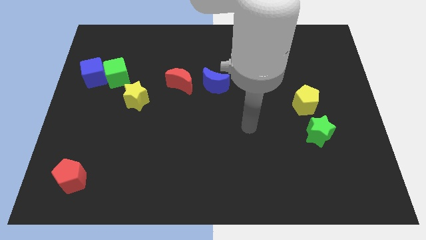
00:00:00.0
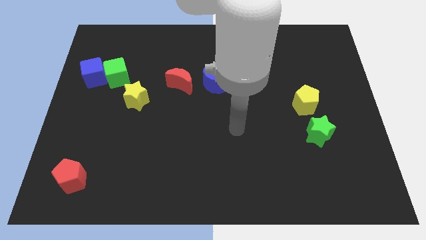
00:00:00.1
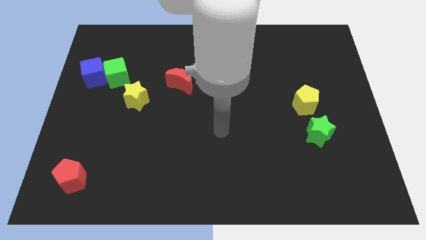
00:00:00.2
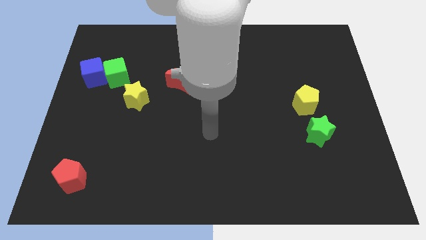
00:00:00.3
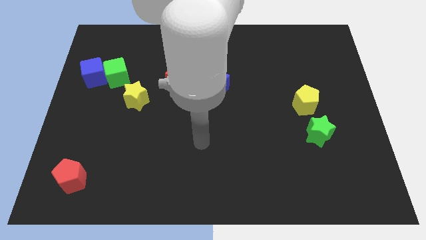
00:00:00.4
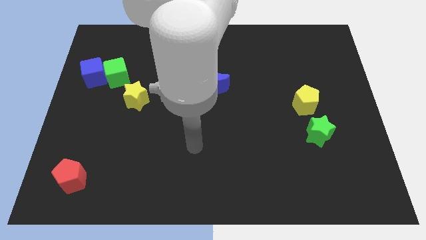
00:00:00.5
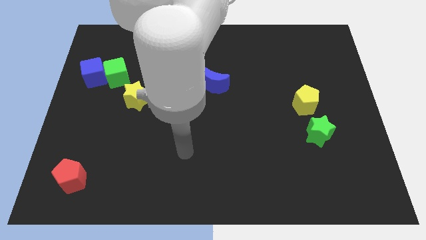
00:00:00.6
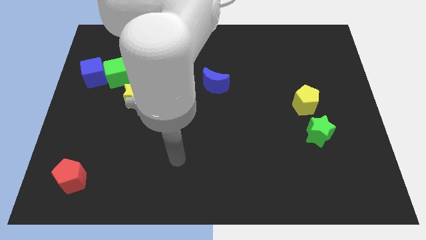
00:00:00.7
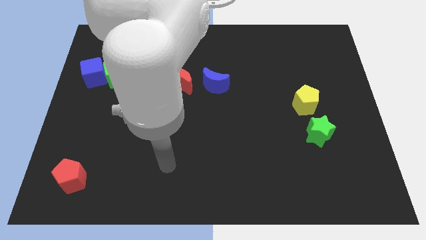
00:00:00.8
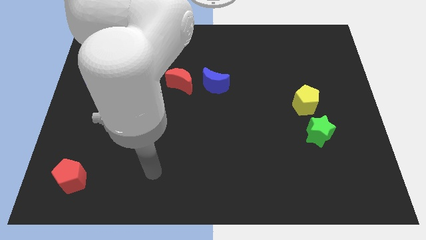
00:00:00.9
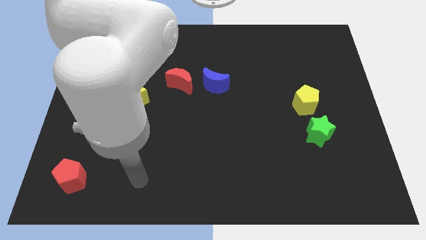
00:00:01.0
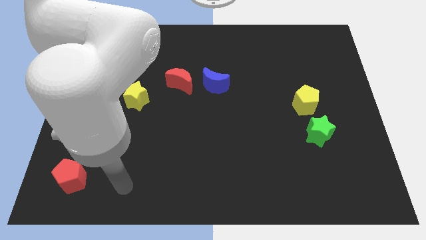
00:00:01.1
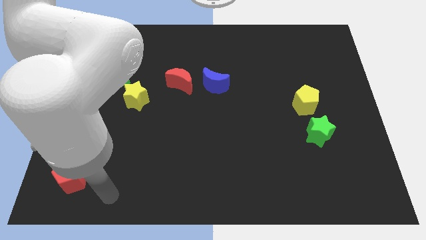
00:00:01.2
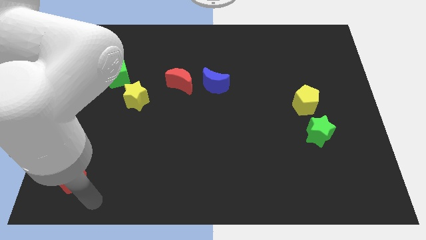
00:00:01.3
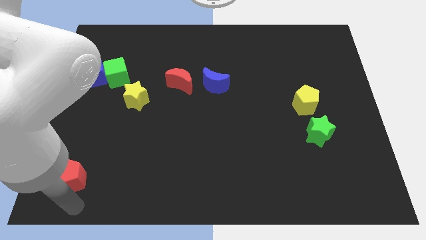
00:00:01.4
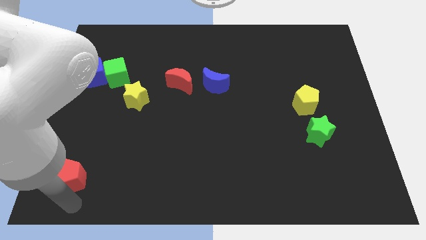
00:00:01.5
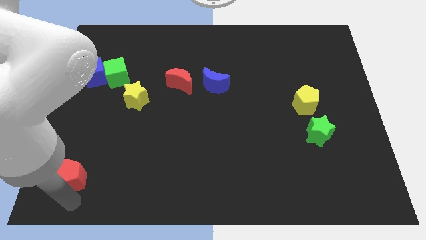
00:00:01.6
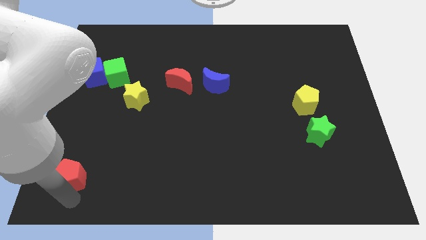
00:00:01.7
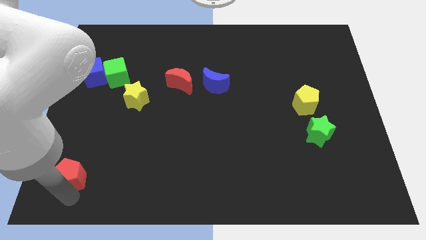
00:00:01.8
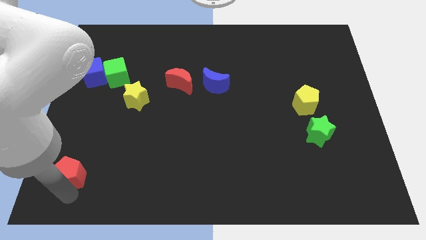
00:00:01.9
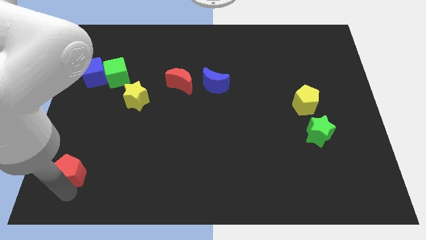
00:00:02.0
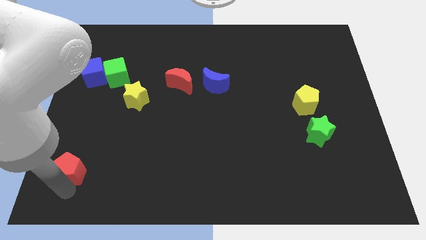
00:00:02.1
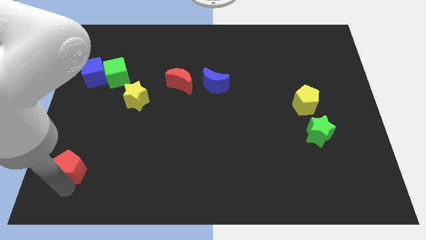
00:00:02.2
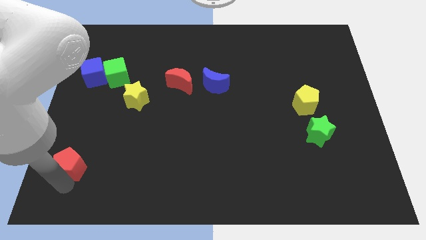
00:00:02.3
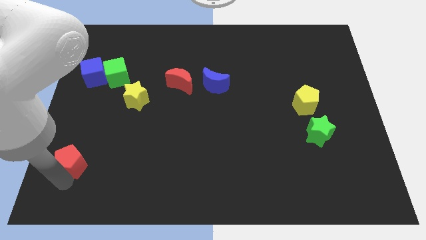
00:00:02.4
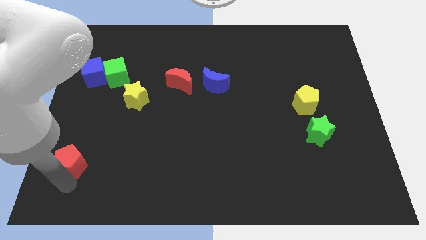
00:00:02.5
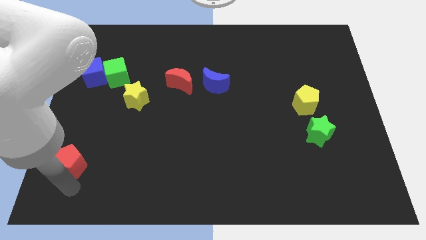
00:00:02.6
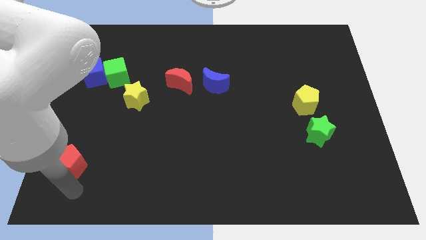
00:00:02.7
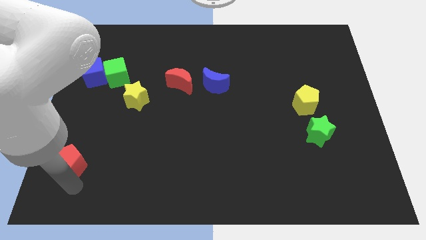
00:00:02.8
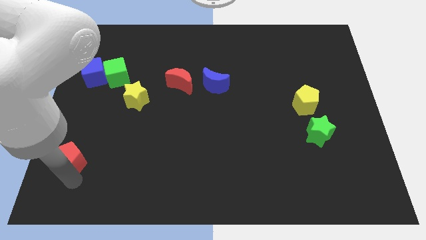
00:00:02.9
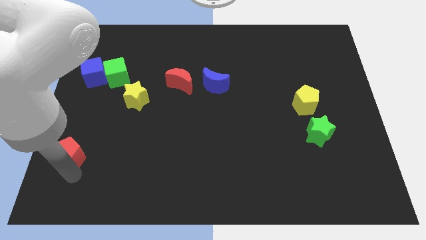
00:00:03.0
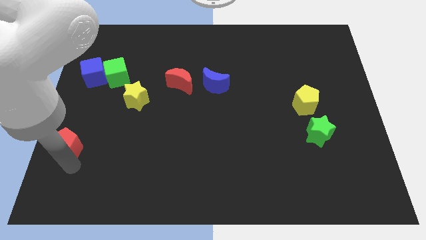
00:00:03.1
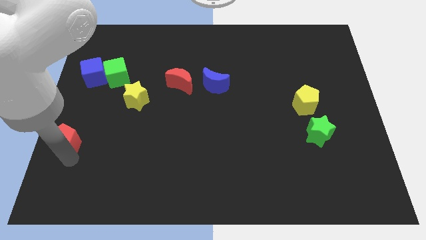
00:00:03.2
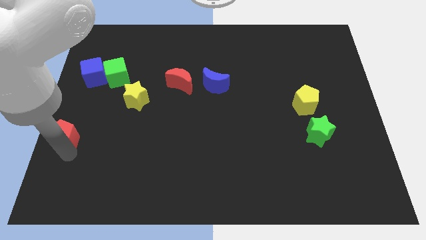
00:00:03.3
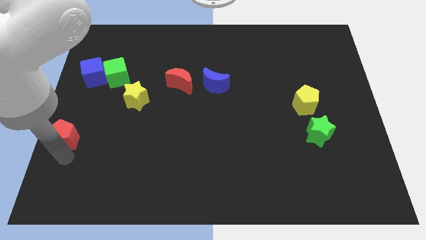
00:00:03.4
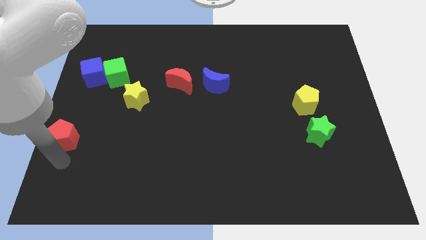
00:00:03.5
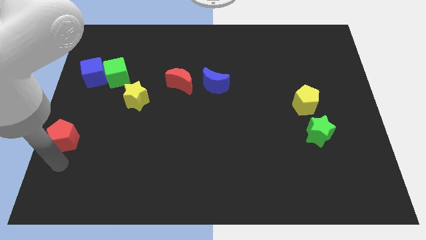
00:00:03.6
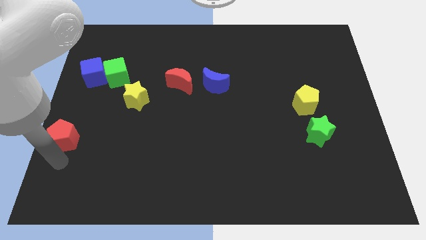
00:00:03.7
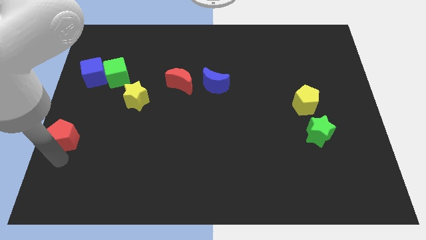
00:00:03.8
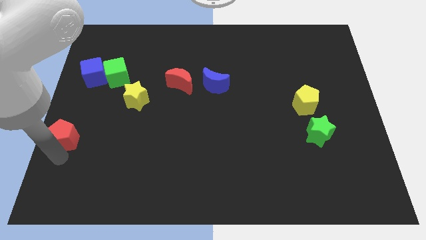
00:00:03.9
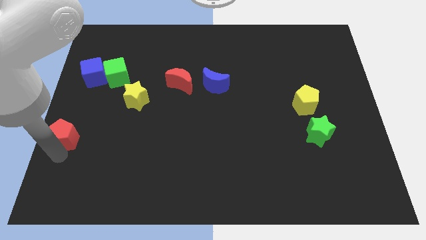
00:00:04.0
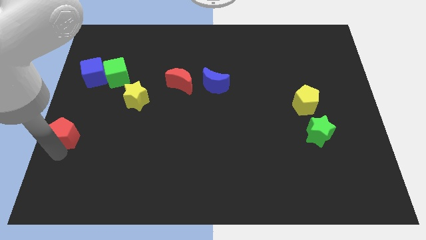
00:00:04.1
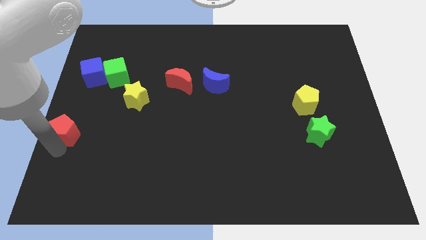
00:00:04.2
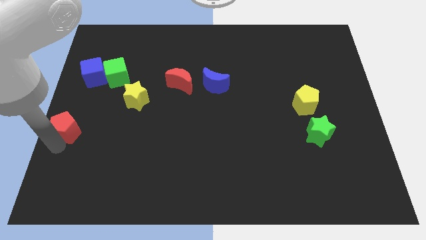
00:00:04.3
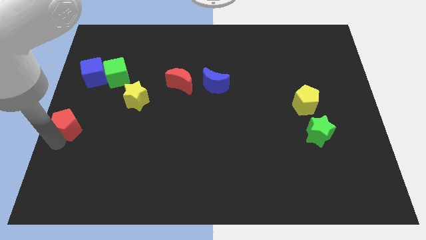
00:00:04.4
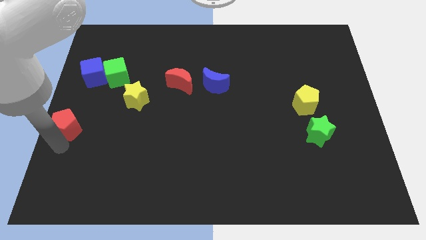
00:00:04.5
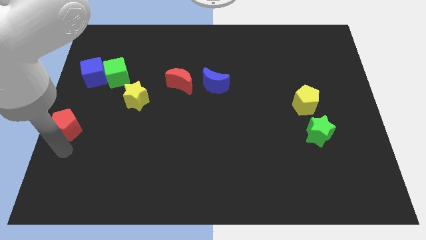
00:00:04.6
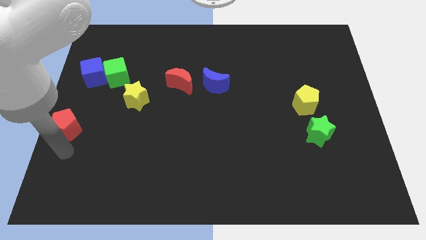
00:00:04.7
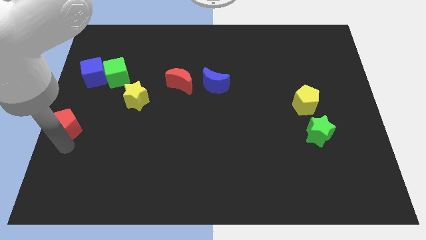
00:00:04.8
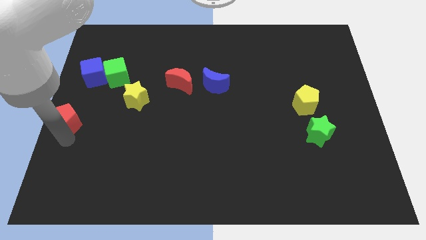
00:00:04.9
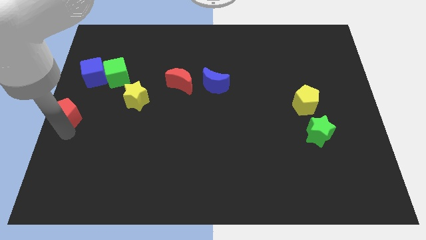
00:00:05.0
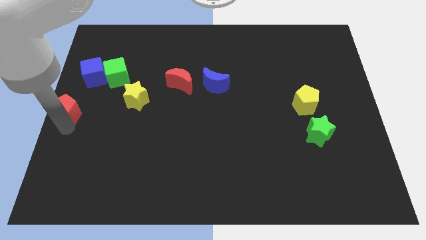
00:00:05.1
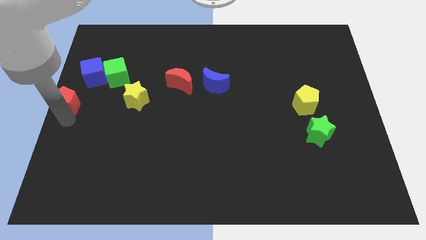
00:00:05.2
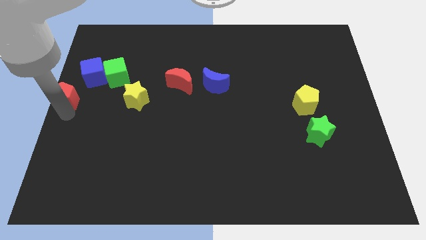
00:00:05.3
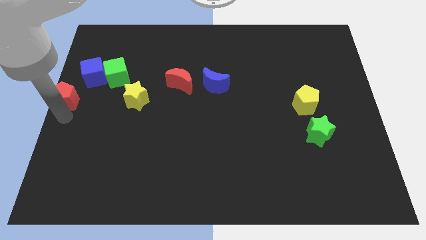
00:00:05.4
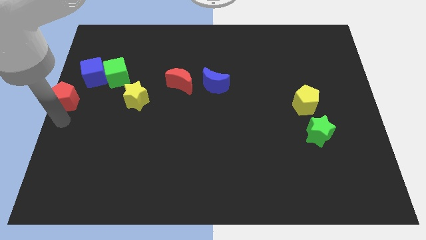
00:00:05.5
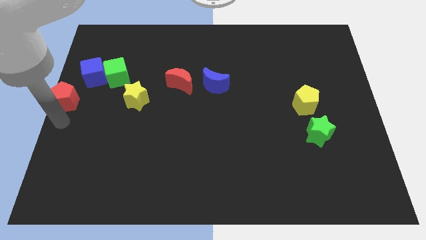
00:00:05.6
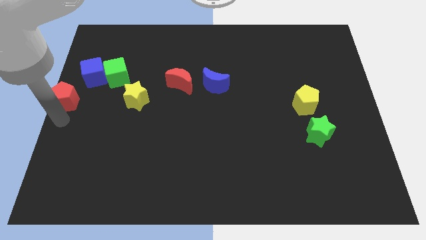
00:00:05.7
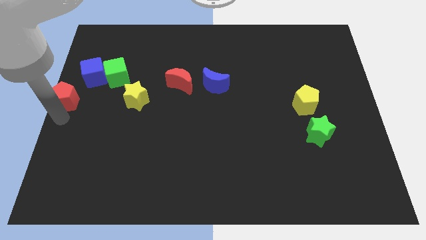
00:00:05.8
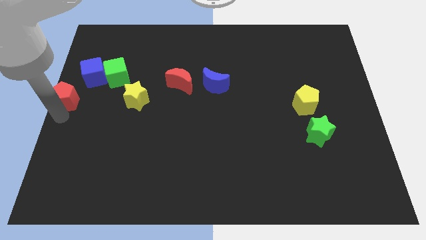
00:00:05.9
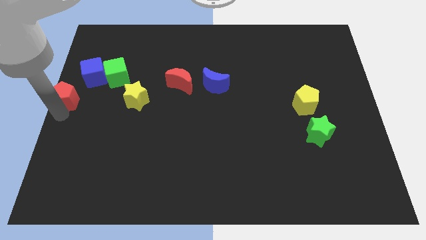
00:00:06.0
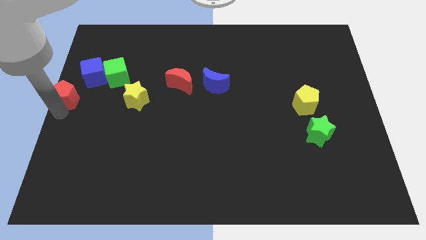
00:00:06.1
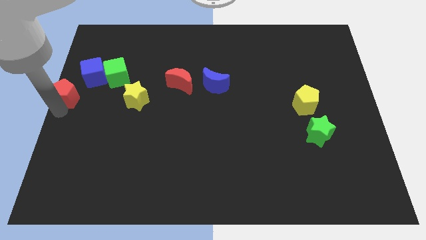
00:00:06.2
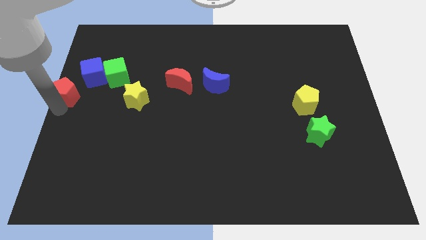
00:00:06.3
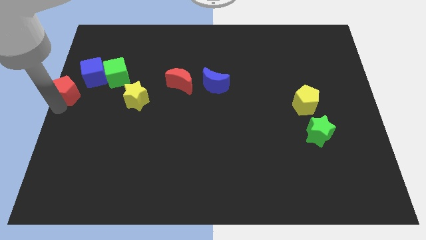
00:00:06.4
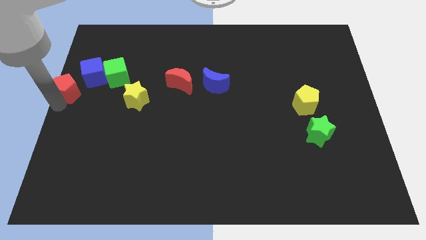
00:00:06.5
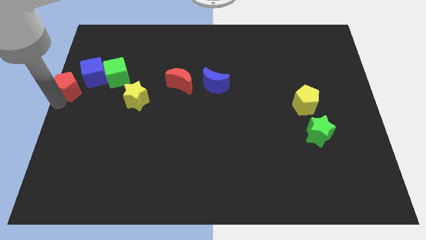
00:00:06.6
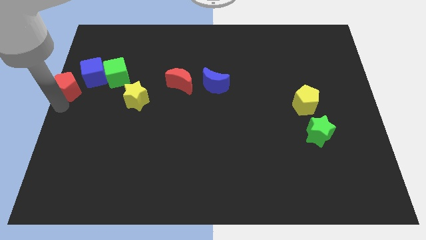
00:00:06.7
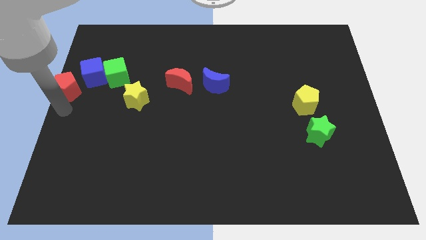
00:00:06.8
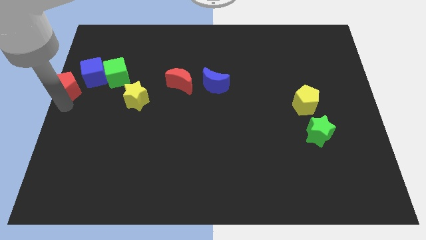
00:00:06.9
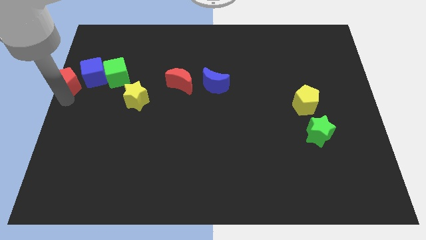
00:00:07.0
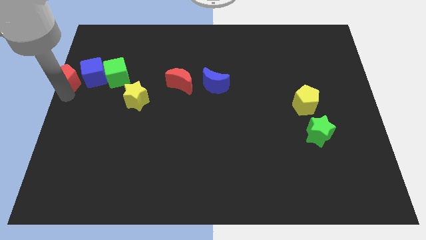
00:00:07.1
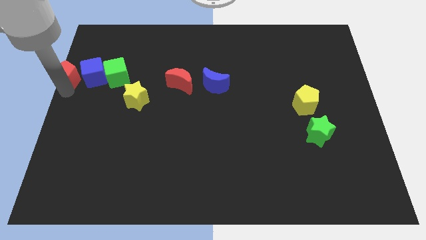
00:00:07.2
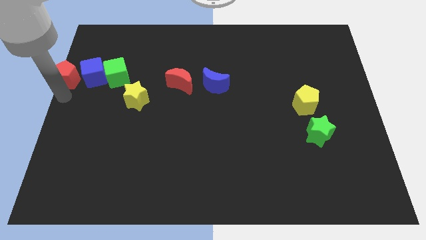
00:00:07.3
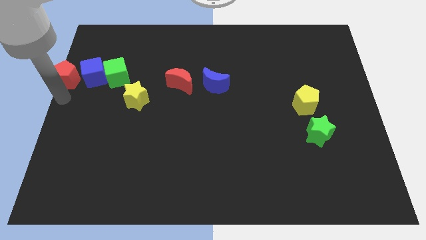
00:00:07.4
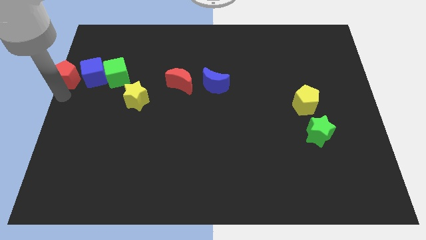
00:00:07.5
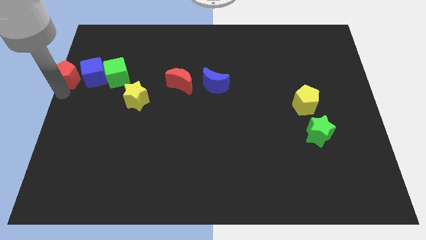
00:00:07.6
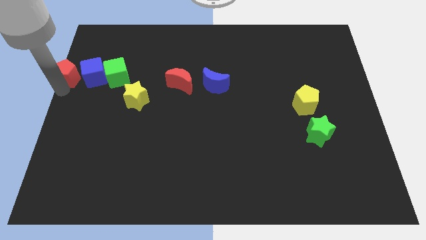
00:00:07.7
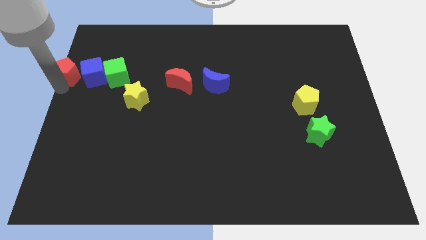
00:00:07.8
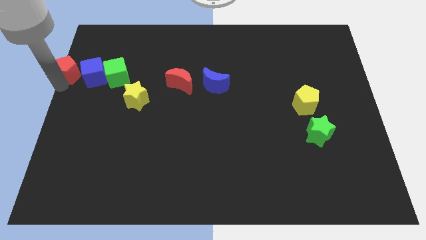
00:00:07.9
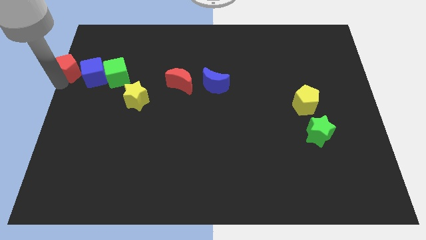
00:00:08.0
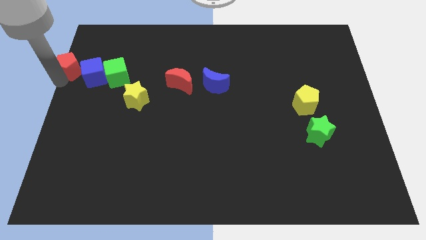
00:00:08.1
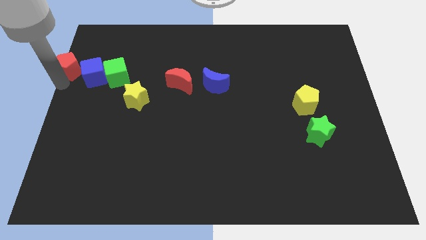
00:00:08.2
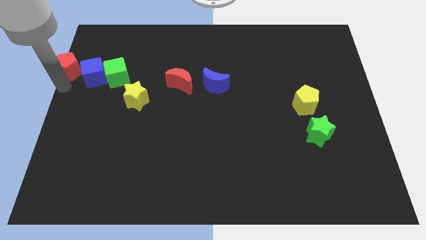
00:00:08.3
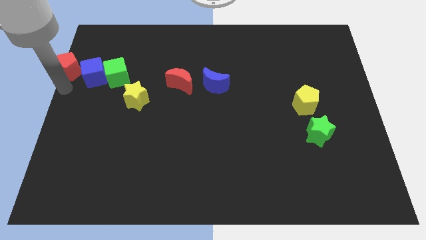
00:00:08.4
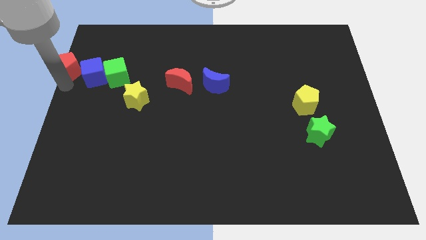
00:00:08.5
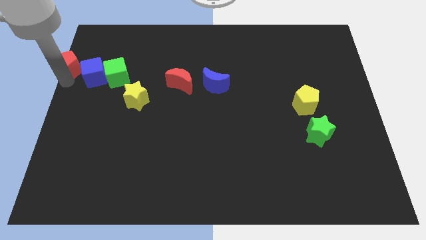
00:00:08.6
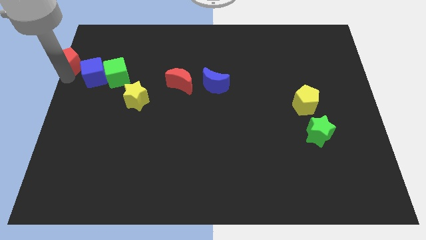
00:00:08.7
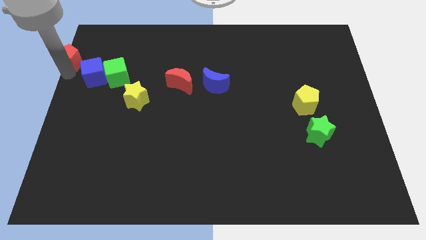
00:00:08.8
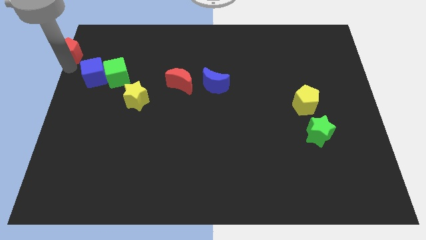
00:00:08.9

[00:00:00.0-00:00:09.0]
put the red pentagon to the top left
